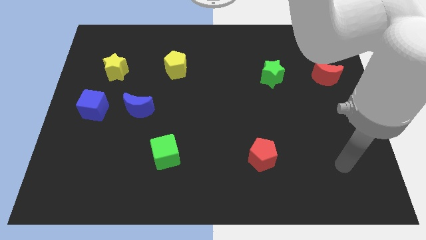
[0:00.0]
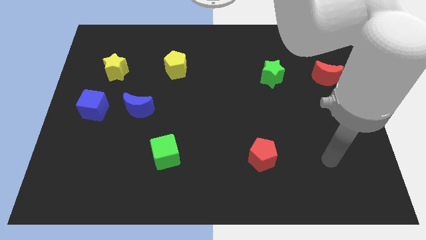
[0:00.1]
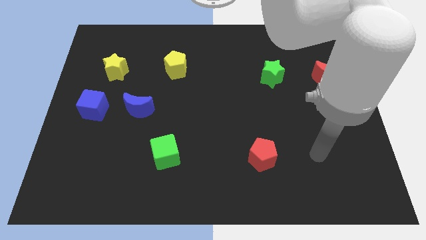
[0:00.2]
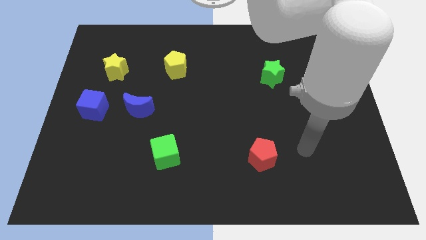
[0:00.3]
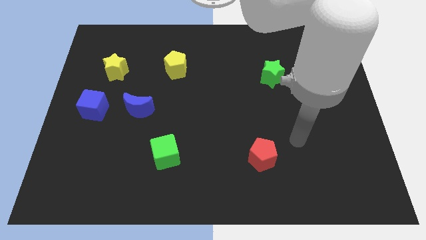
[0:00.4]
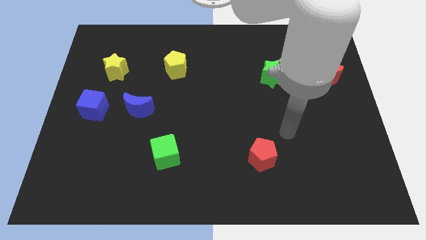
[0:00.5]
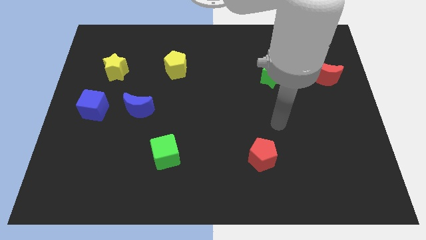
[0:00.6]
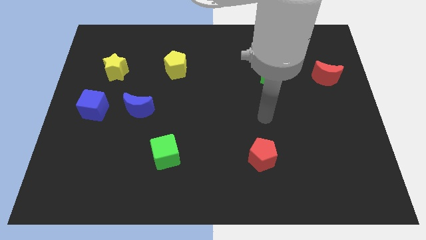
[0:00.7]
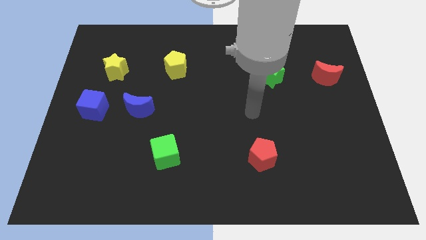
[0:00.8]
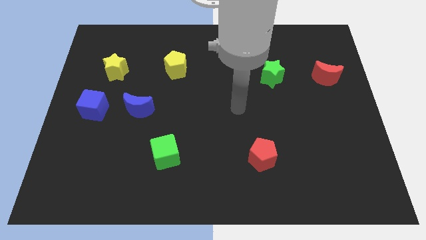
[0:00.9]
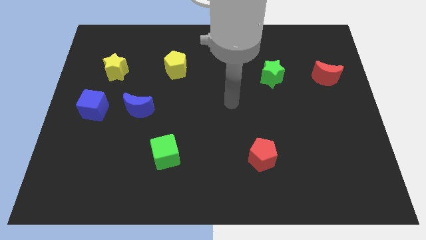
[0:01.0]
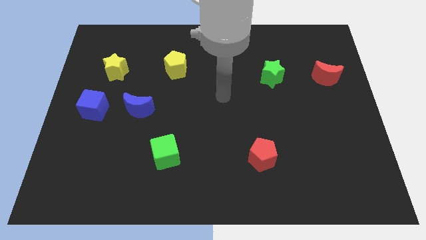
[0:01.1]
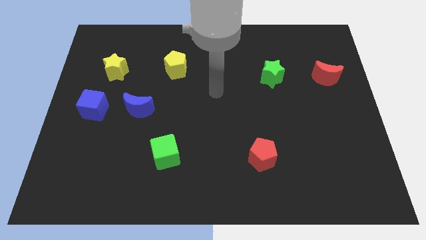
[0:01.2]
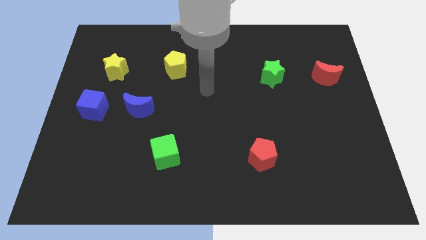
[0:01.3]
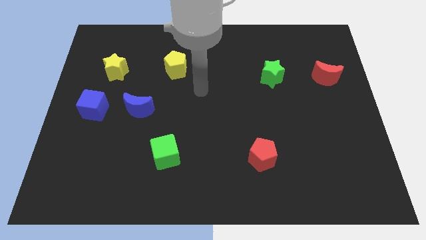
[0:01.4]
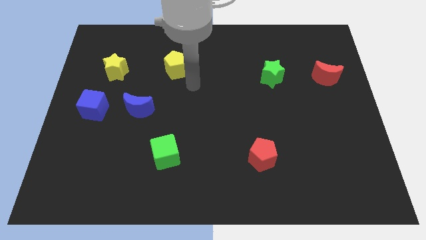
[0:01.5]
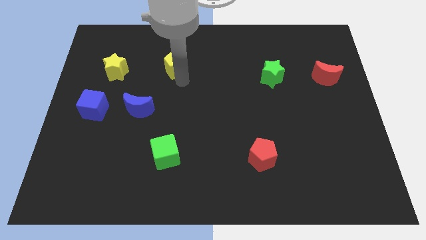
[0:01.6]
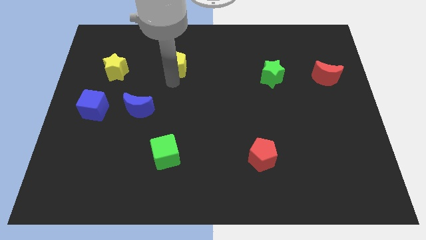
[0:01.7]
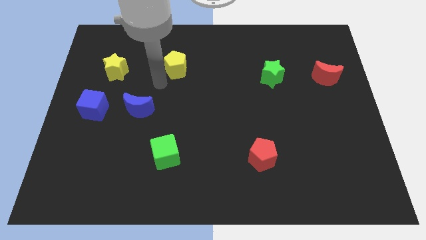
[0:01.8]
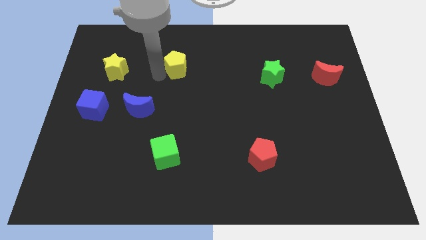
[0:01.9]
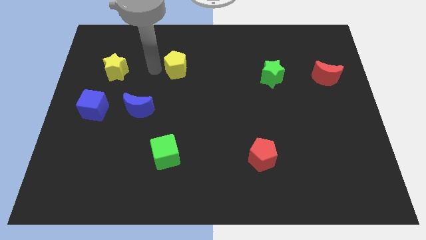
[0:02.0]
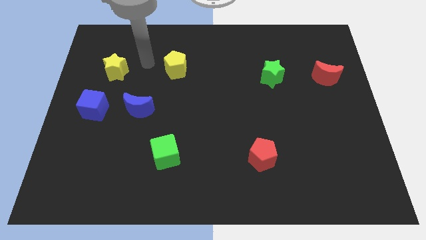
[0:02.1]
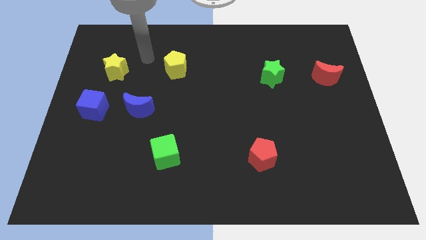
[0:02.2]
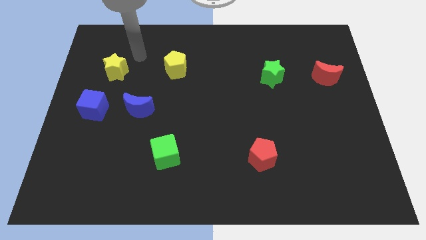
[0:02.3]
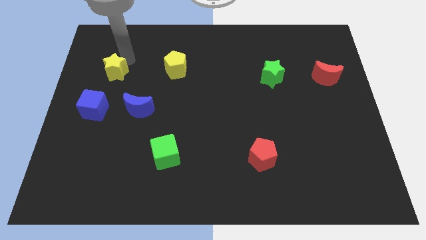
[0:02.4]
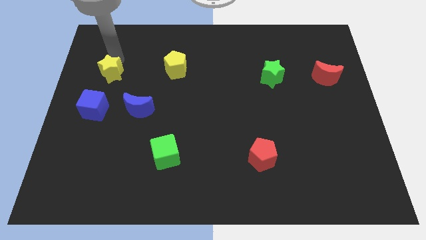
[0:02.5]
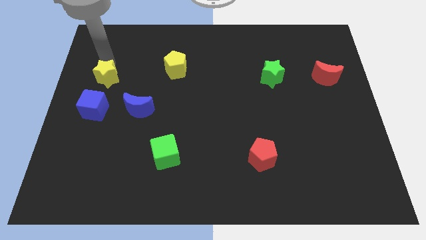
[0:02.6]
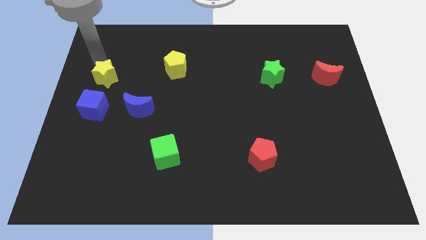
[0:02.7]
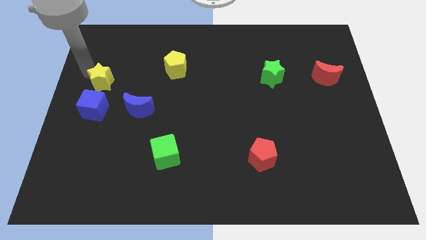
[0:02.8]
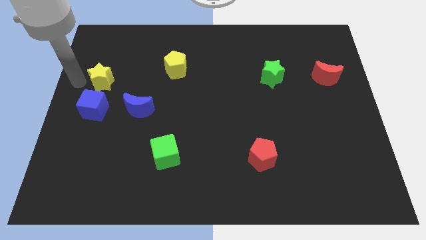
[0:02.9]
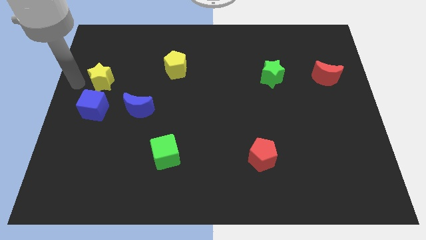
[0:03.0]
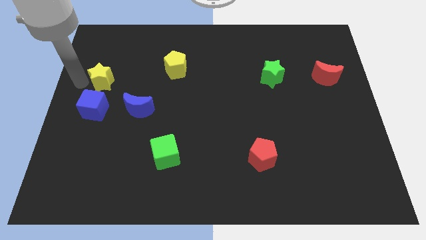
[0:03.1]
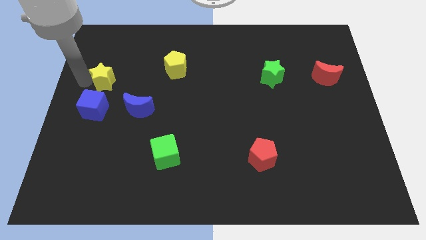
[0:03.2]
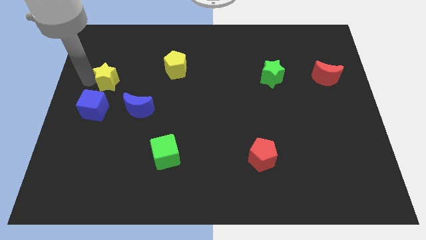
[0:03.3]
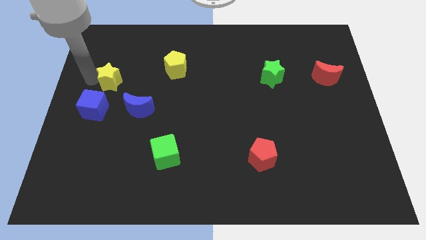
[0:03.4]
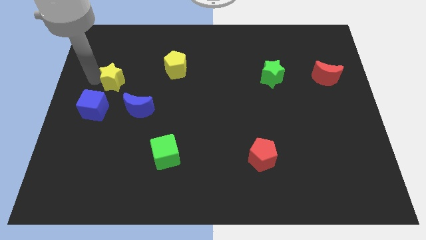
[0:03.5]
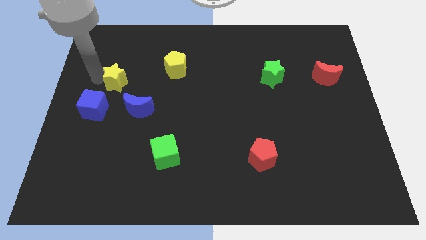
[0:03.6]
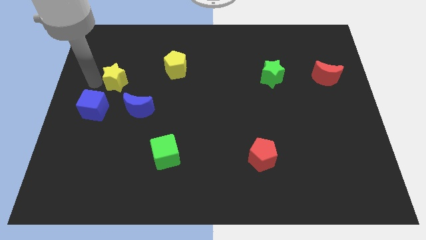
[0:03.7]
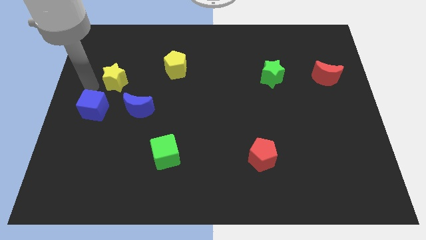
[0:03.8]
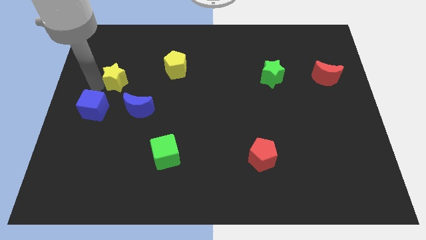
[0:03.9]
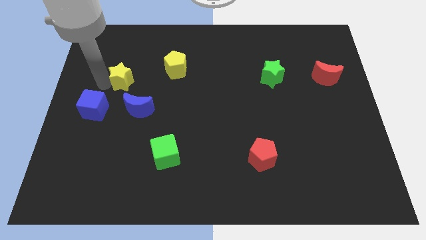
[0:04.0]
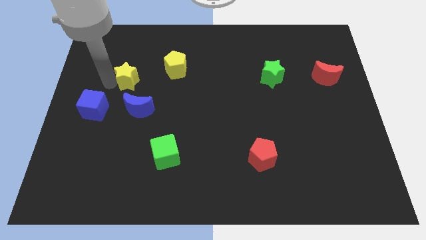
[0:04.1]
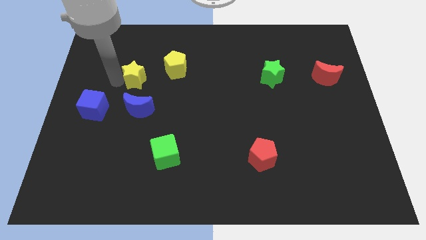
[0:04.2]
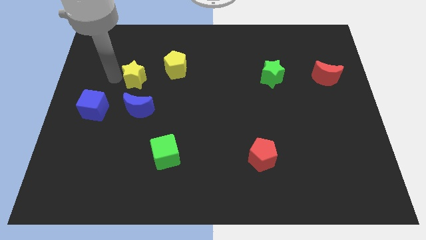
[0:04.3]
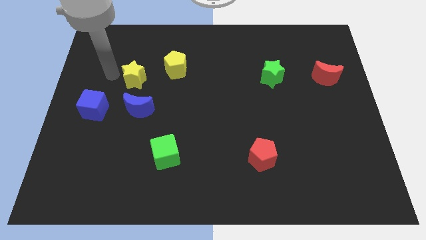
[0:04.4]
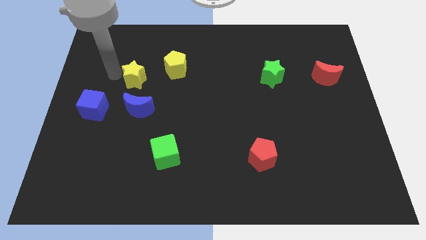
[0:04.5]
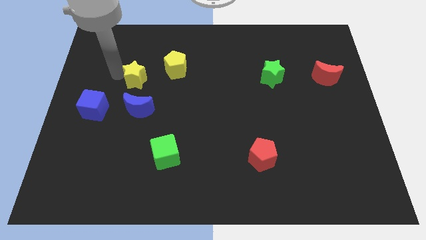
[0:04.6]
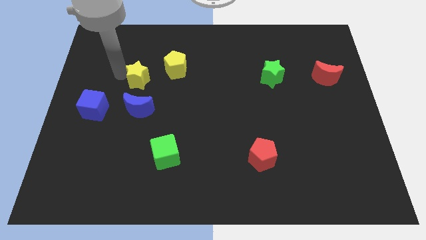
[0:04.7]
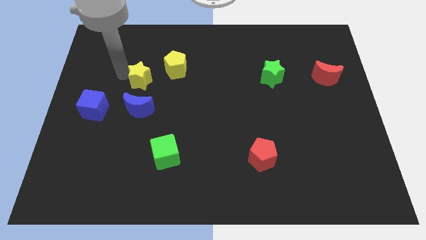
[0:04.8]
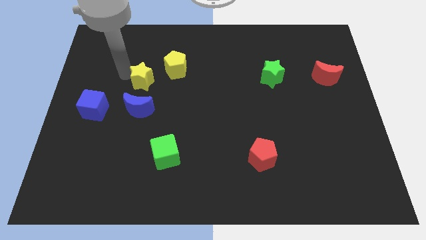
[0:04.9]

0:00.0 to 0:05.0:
push the yellow star a little bit to the right

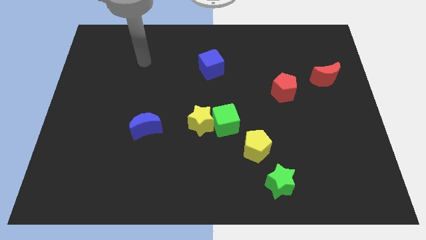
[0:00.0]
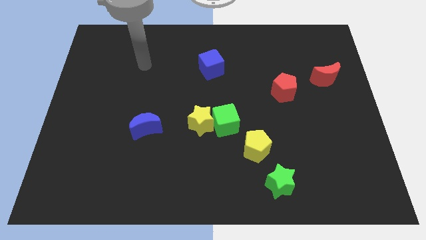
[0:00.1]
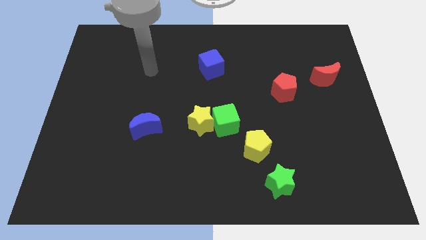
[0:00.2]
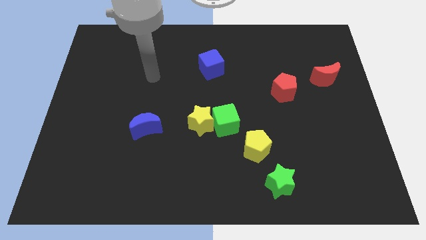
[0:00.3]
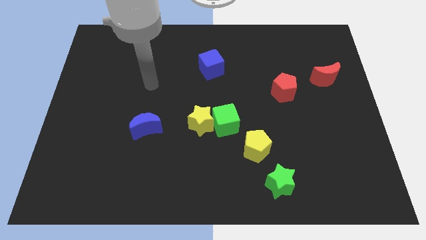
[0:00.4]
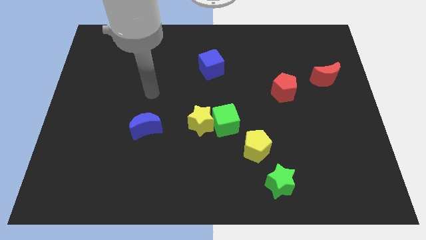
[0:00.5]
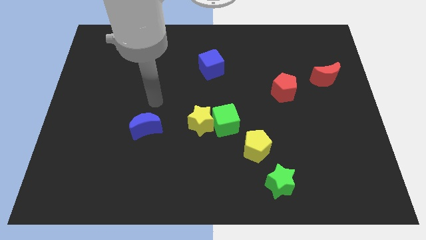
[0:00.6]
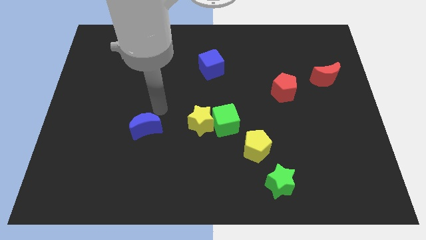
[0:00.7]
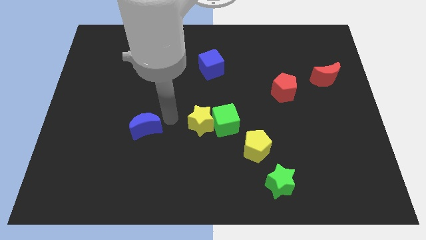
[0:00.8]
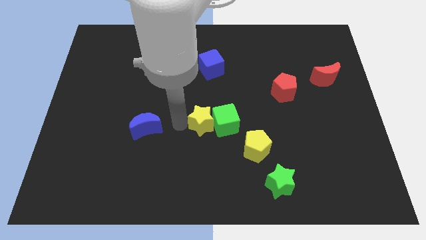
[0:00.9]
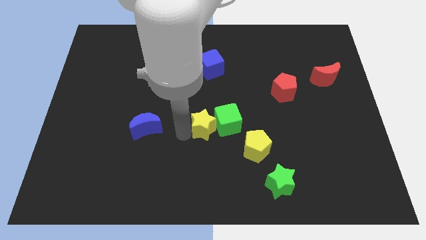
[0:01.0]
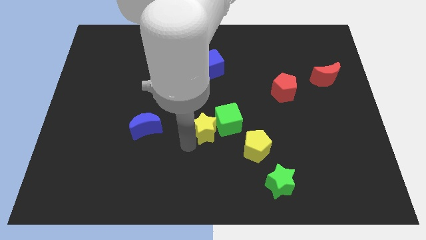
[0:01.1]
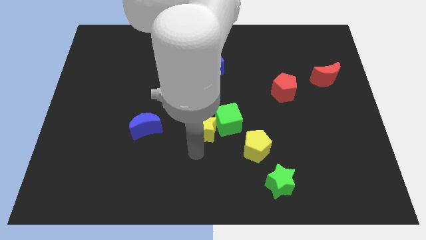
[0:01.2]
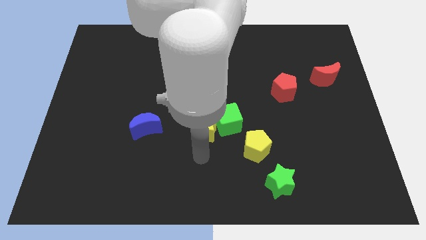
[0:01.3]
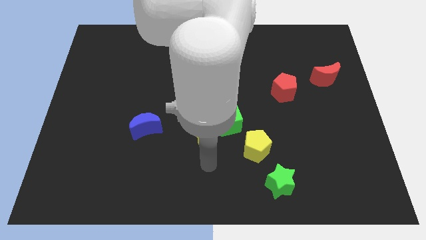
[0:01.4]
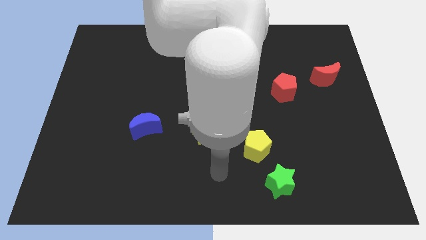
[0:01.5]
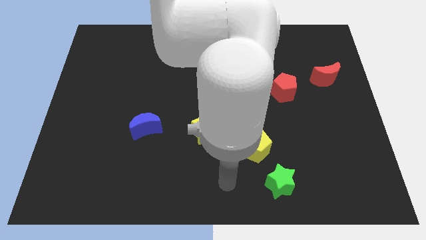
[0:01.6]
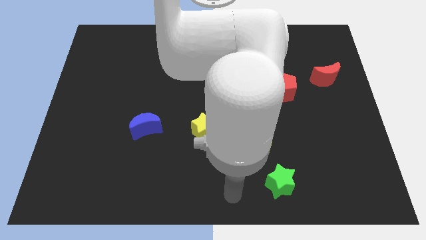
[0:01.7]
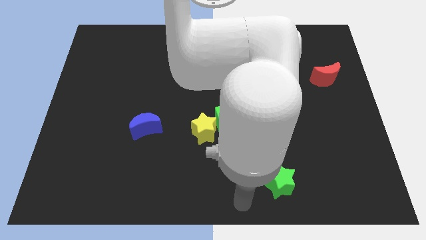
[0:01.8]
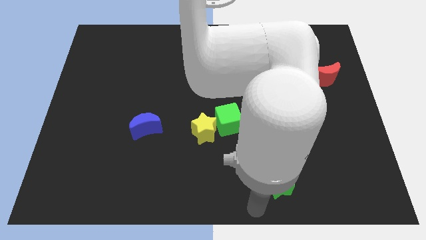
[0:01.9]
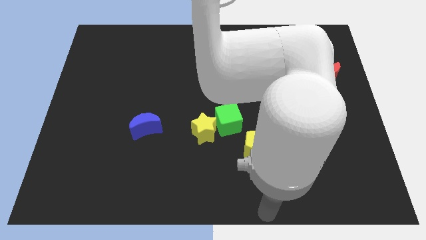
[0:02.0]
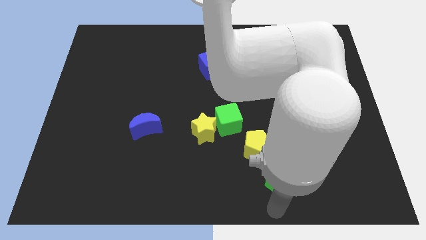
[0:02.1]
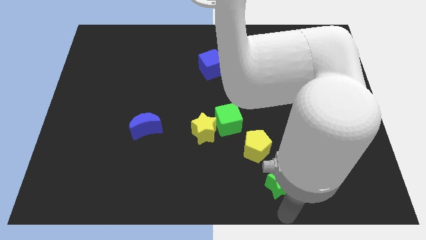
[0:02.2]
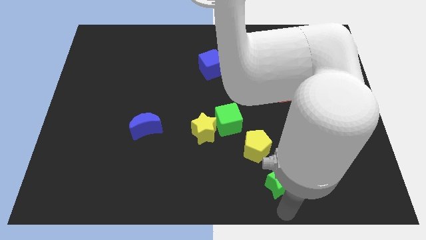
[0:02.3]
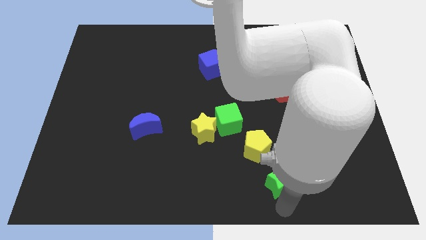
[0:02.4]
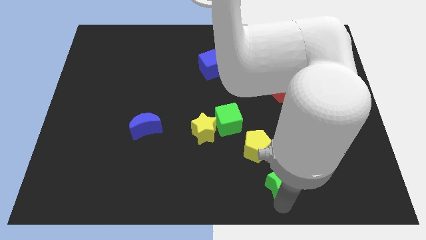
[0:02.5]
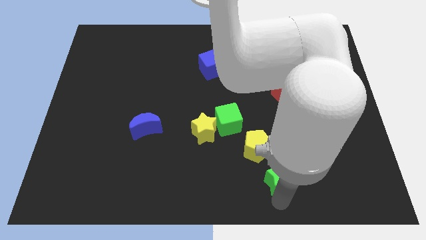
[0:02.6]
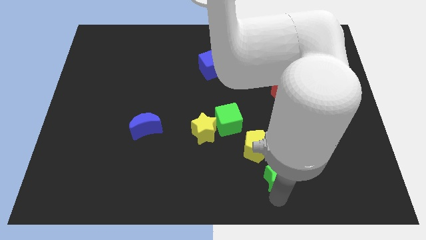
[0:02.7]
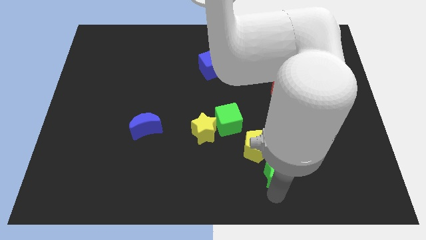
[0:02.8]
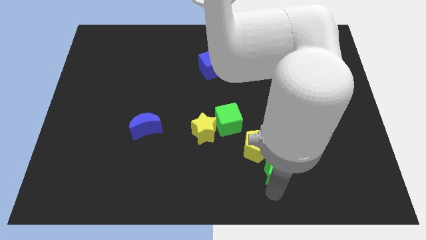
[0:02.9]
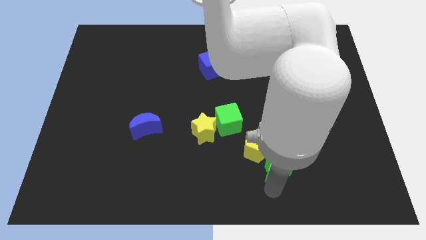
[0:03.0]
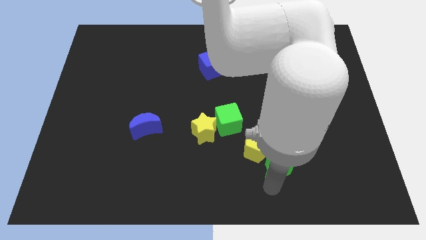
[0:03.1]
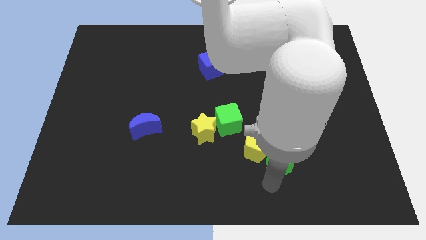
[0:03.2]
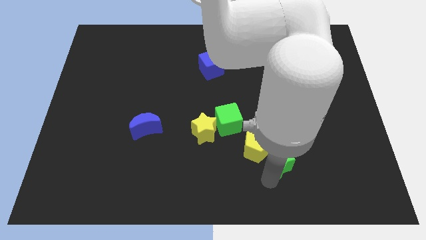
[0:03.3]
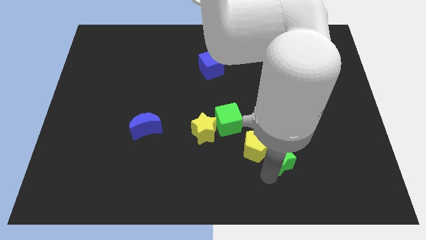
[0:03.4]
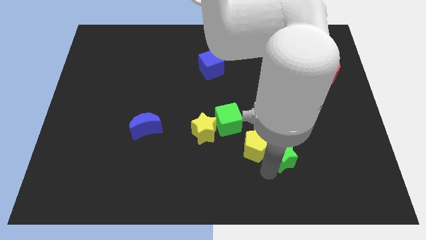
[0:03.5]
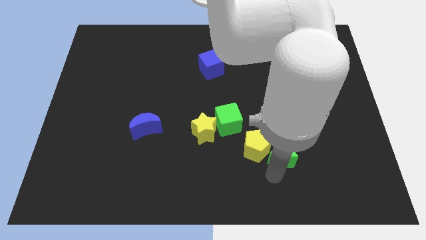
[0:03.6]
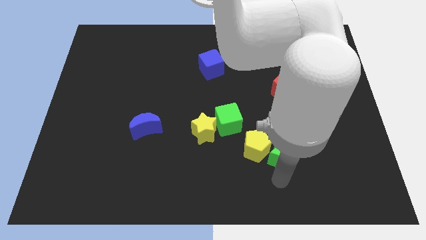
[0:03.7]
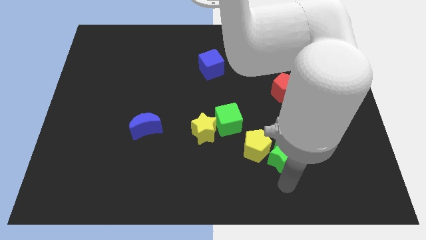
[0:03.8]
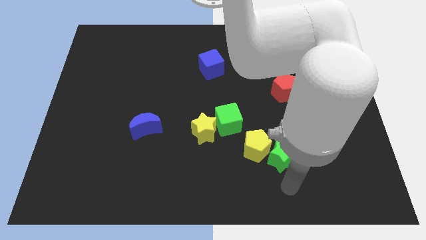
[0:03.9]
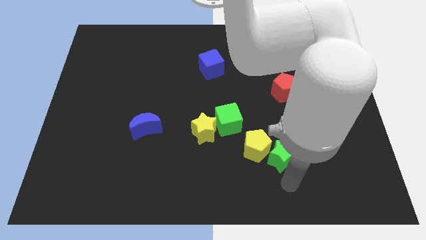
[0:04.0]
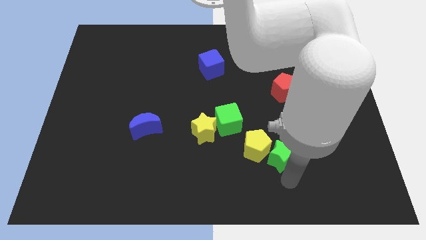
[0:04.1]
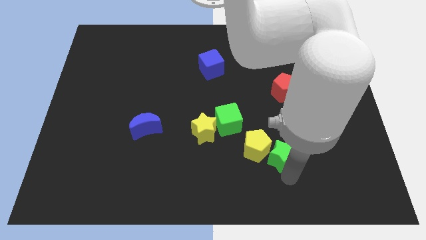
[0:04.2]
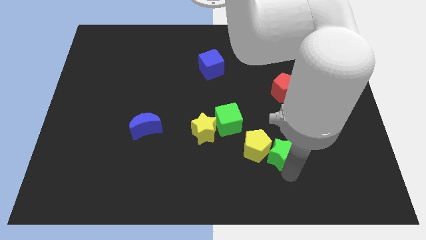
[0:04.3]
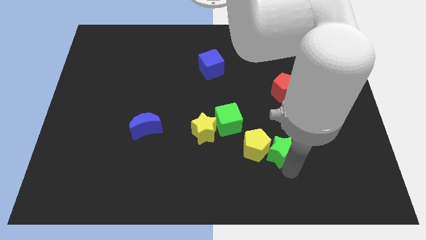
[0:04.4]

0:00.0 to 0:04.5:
slide the green star up a little
